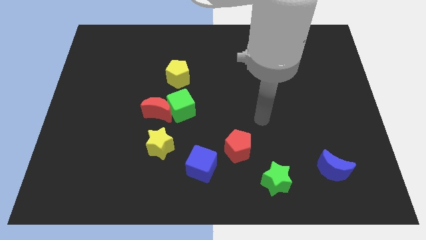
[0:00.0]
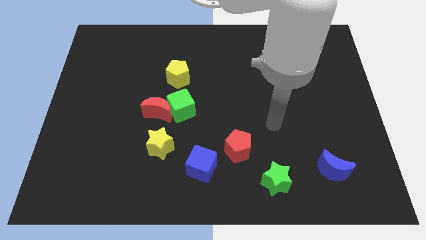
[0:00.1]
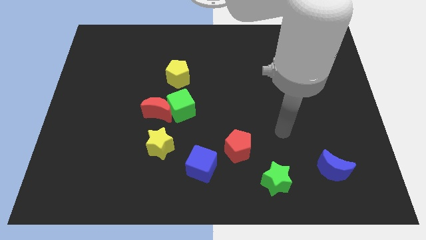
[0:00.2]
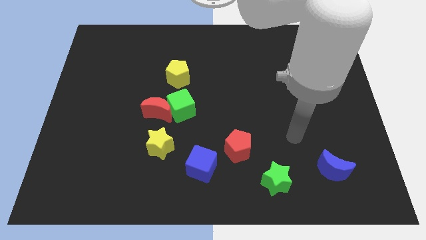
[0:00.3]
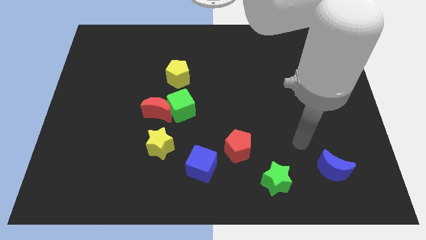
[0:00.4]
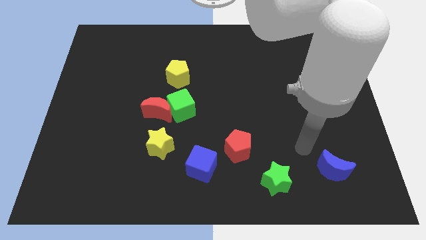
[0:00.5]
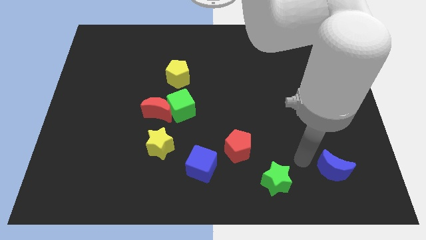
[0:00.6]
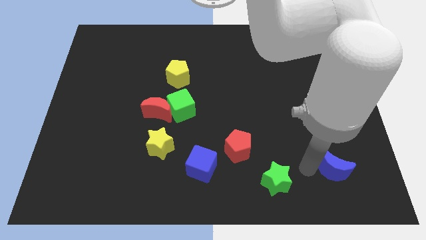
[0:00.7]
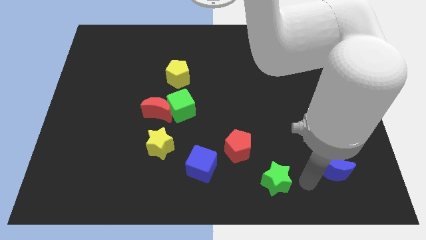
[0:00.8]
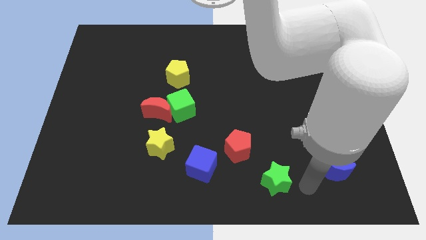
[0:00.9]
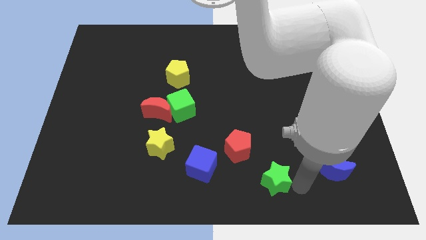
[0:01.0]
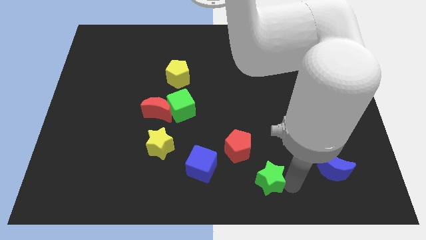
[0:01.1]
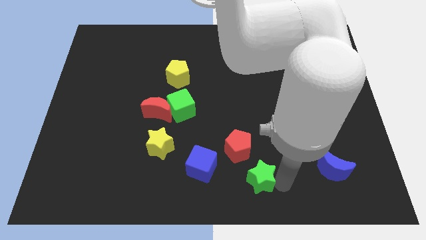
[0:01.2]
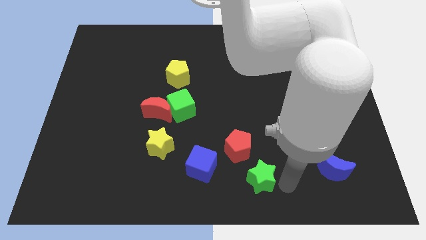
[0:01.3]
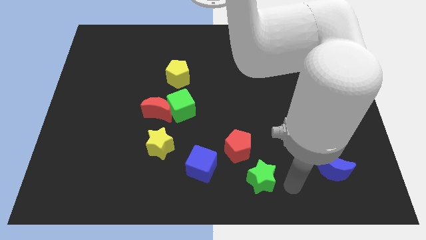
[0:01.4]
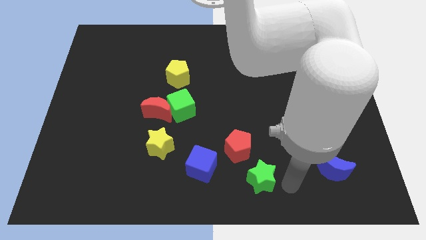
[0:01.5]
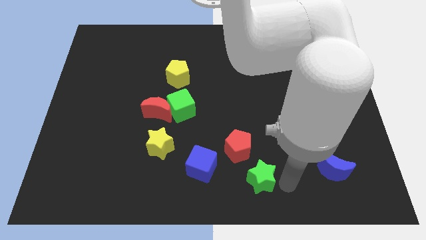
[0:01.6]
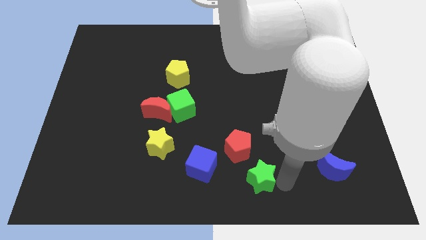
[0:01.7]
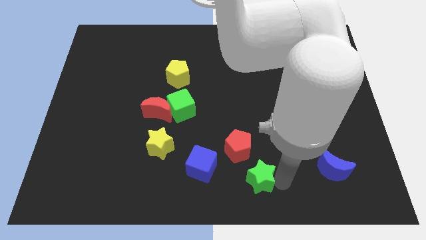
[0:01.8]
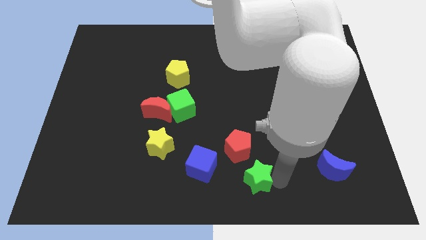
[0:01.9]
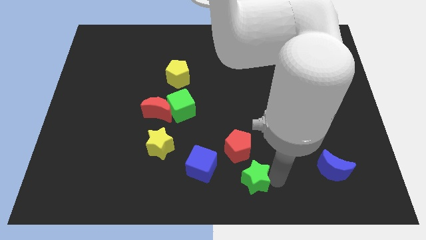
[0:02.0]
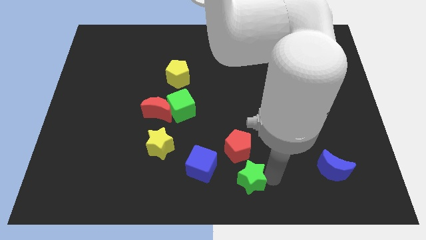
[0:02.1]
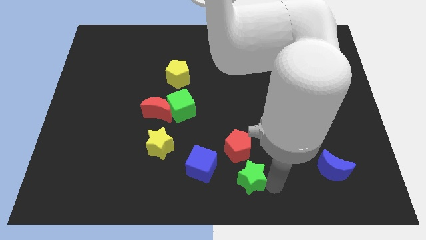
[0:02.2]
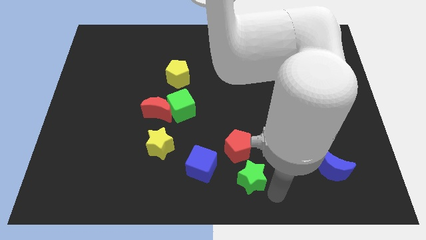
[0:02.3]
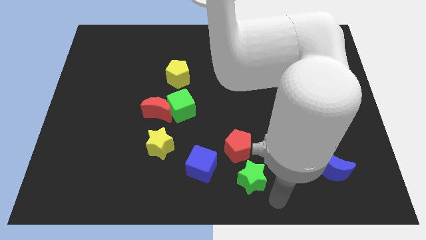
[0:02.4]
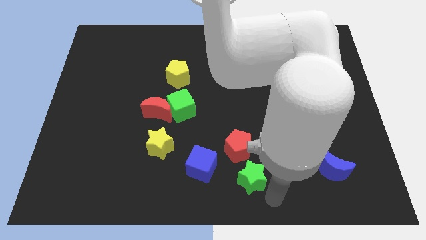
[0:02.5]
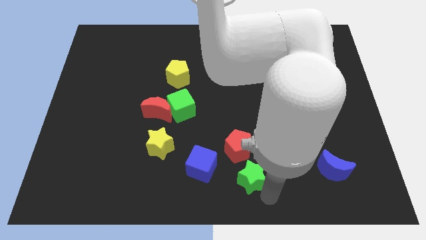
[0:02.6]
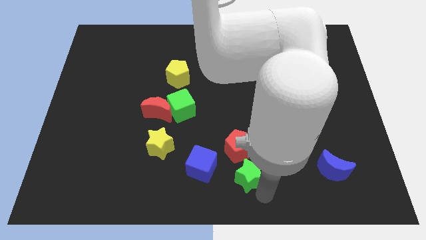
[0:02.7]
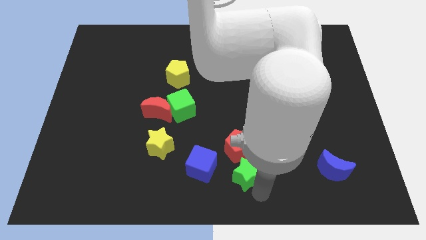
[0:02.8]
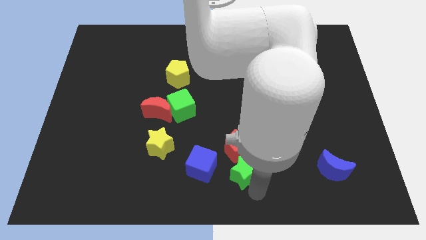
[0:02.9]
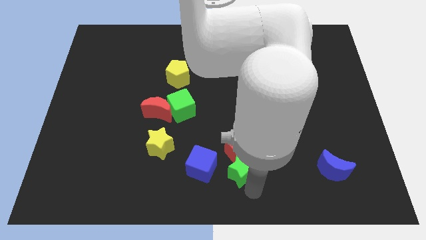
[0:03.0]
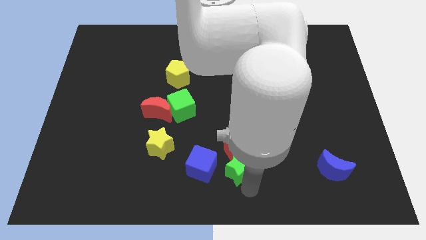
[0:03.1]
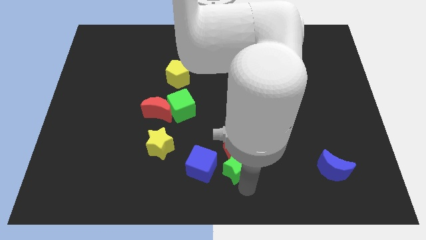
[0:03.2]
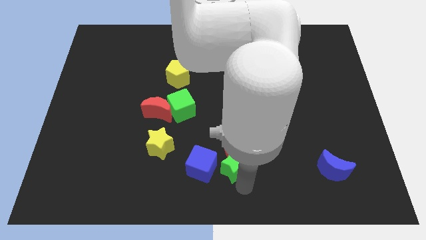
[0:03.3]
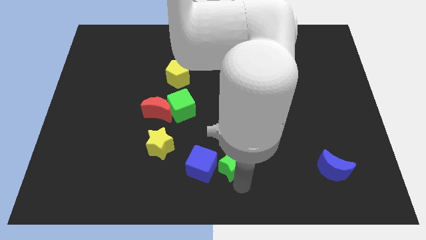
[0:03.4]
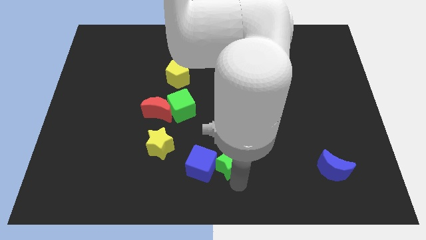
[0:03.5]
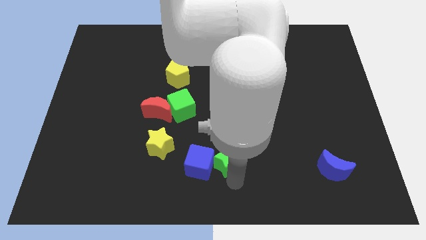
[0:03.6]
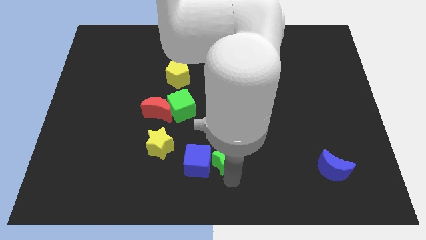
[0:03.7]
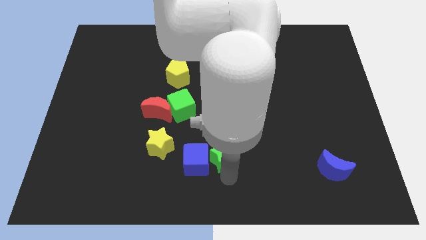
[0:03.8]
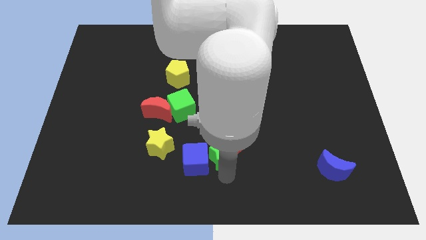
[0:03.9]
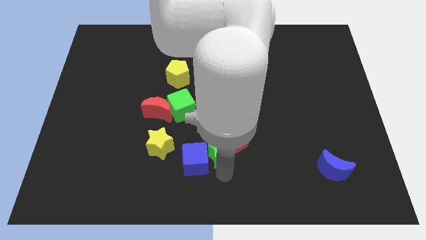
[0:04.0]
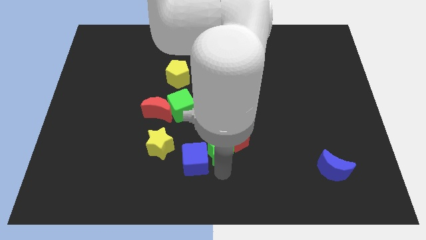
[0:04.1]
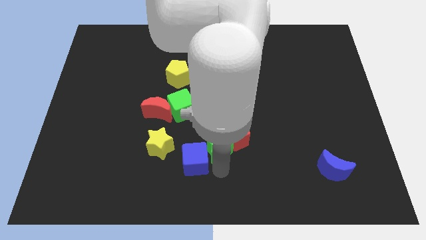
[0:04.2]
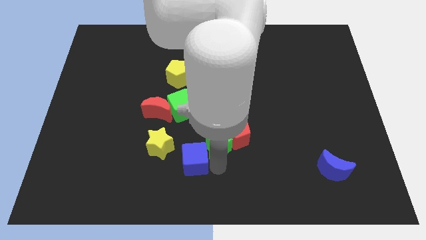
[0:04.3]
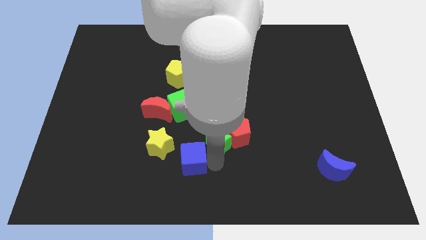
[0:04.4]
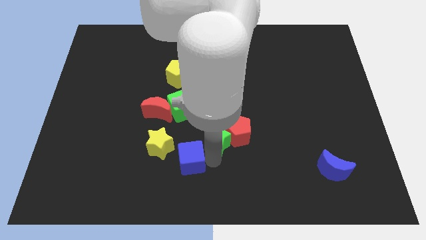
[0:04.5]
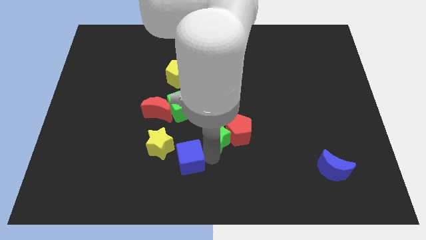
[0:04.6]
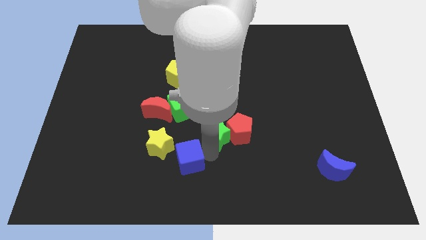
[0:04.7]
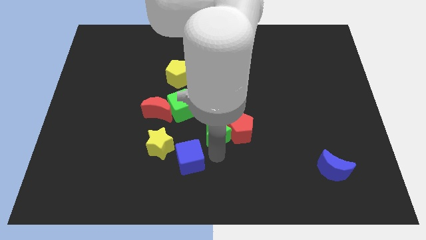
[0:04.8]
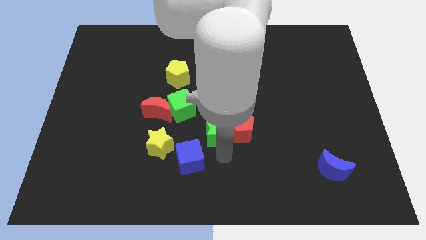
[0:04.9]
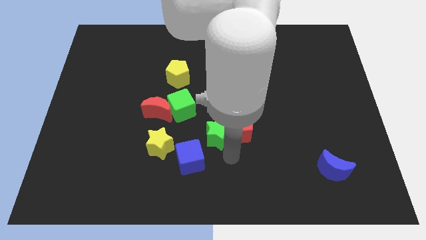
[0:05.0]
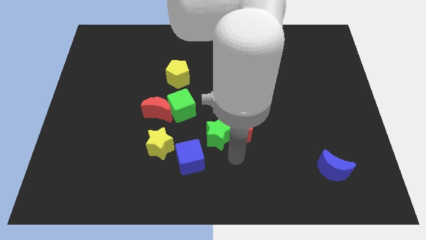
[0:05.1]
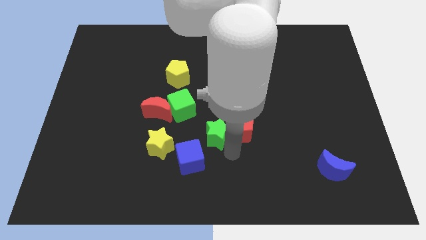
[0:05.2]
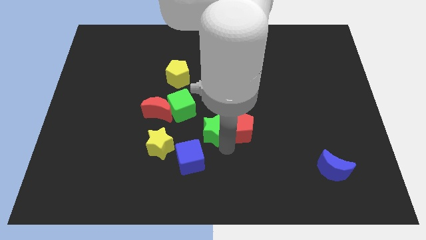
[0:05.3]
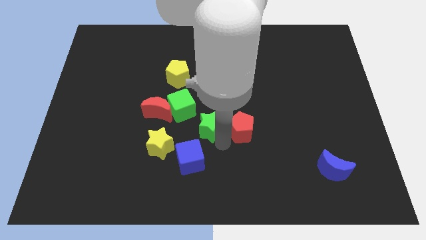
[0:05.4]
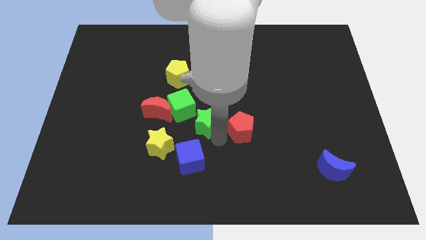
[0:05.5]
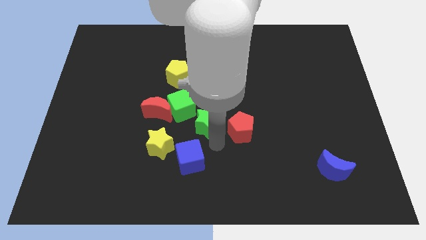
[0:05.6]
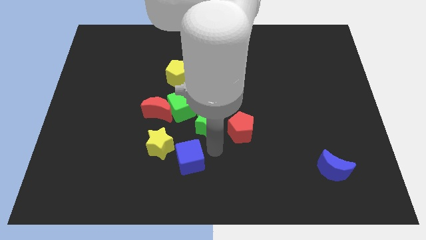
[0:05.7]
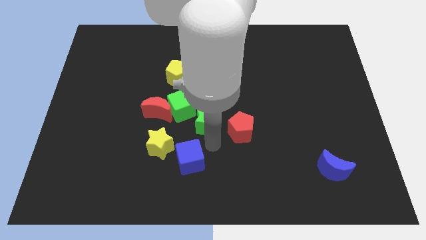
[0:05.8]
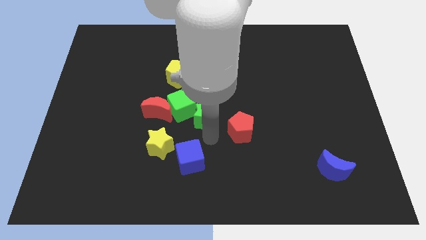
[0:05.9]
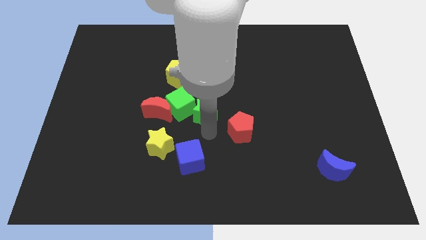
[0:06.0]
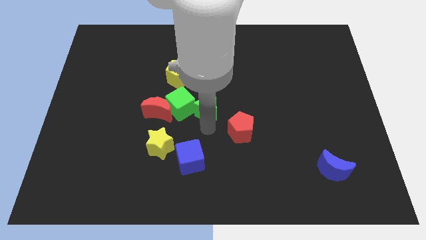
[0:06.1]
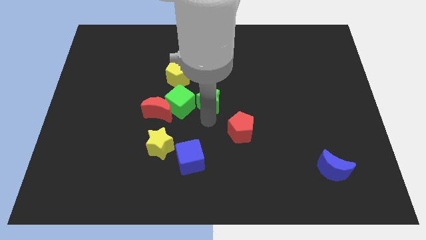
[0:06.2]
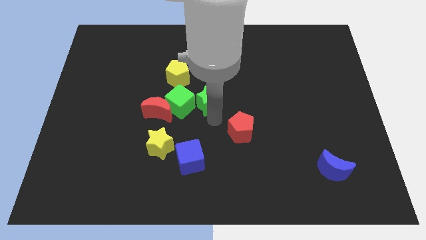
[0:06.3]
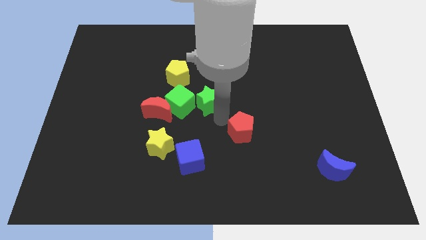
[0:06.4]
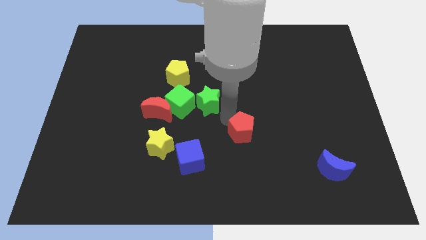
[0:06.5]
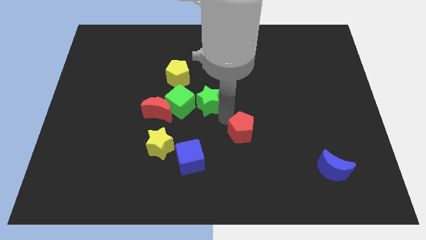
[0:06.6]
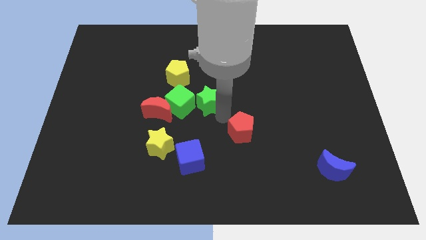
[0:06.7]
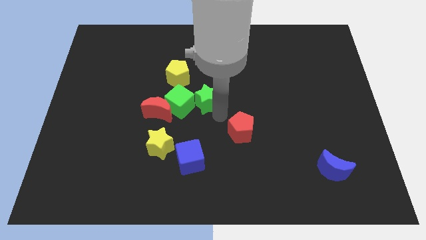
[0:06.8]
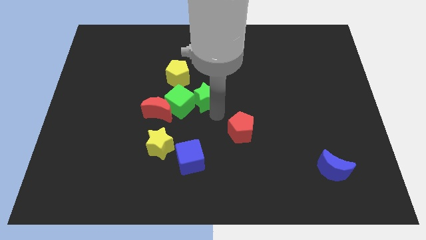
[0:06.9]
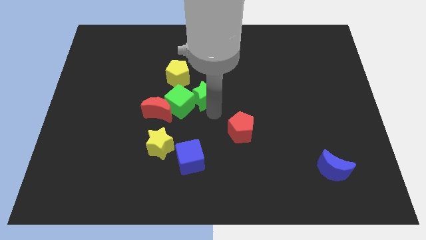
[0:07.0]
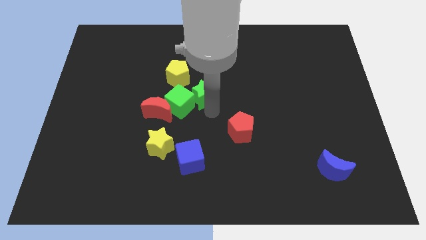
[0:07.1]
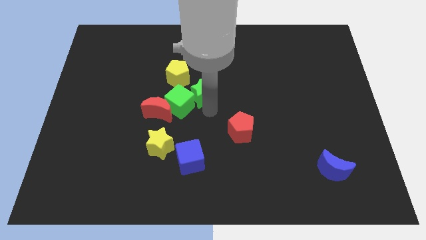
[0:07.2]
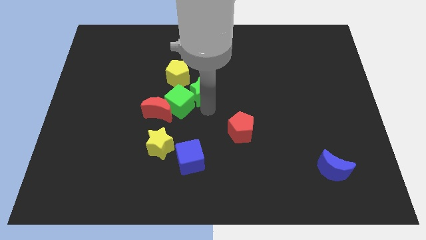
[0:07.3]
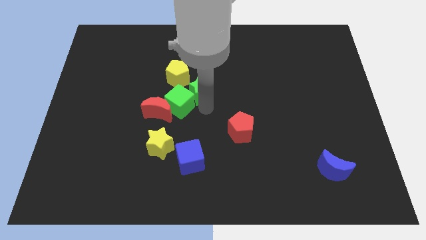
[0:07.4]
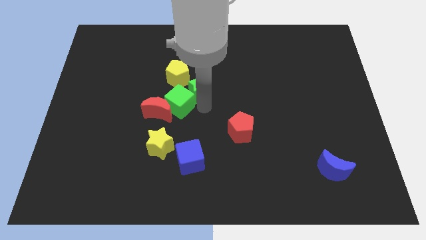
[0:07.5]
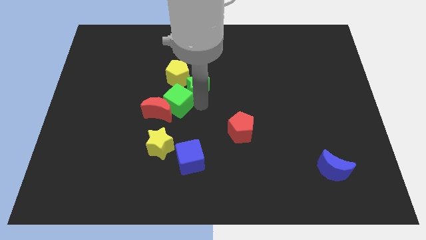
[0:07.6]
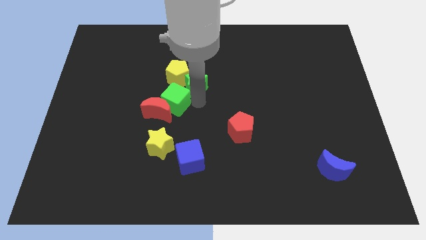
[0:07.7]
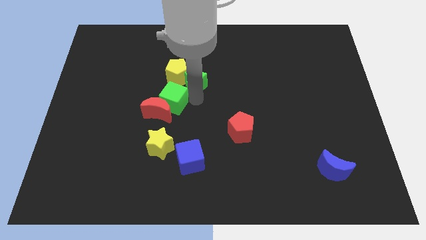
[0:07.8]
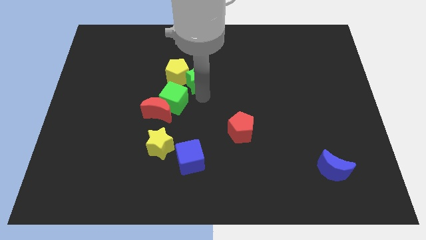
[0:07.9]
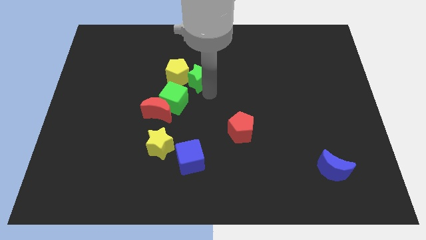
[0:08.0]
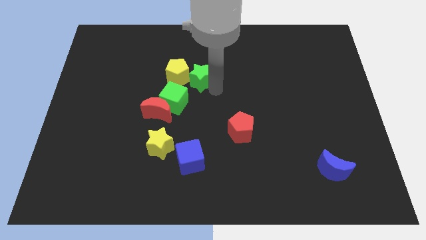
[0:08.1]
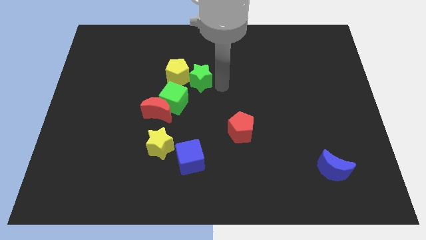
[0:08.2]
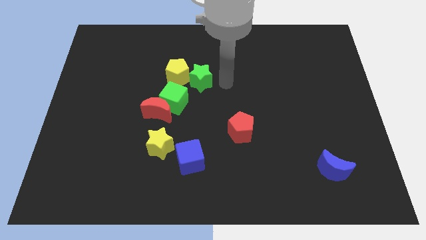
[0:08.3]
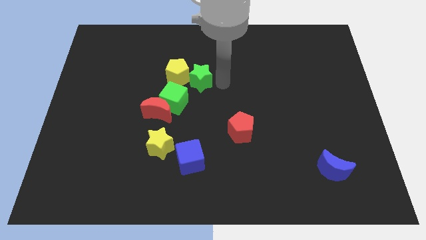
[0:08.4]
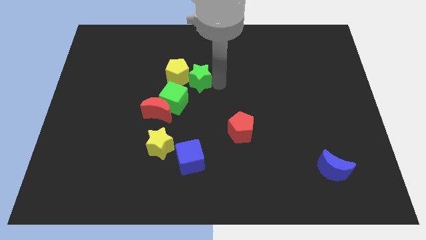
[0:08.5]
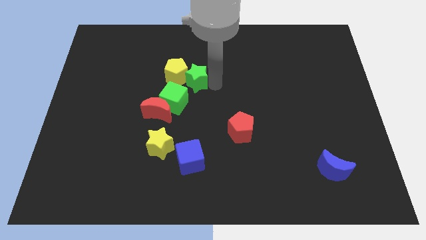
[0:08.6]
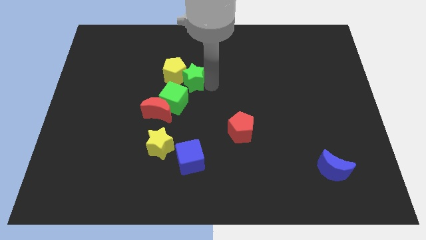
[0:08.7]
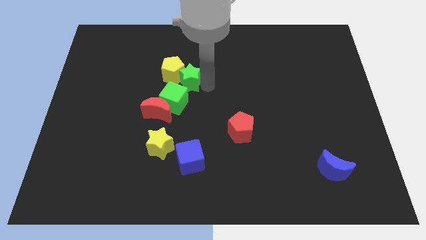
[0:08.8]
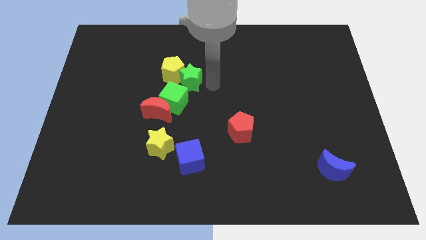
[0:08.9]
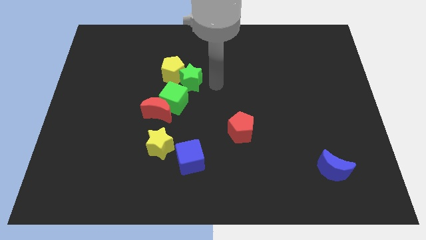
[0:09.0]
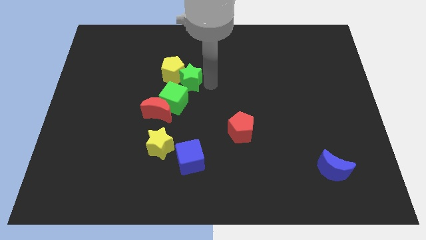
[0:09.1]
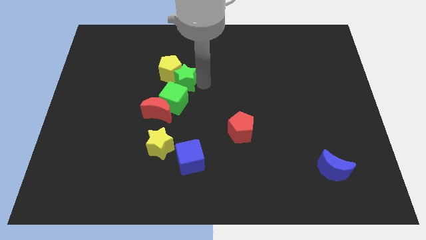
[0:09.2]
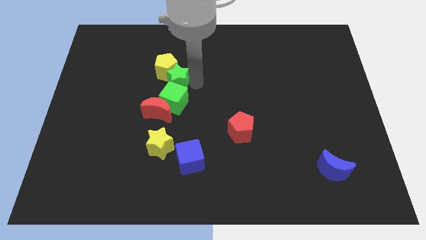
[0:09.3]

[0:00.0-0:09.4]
push the green star to the top side of the red moon
